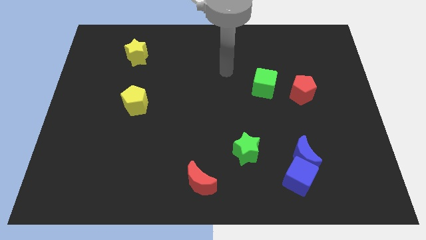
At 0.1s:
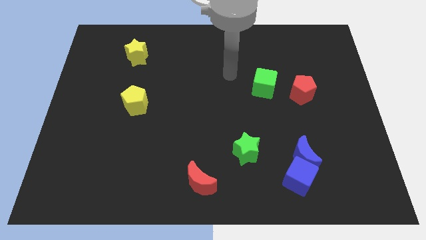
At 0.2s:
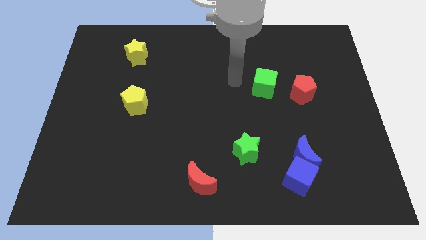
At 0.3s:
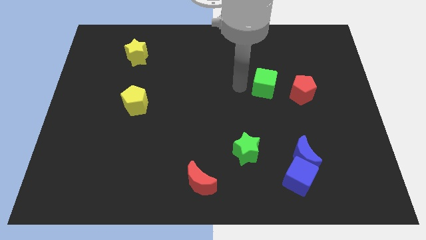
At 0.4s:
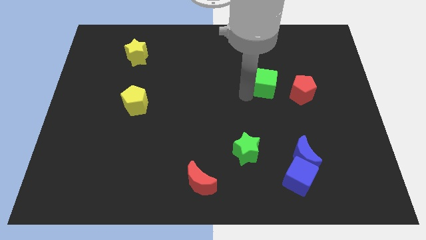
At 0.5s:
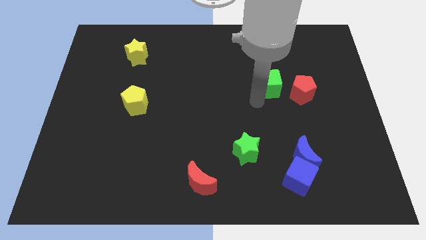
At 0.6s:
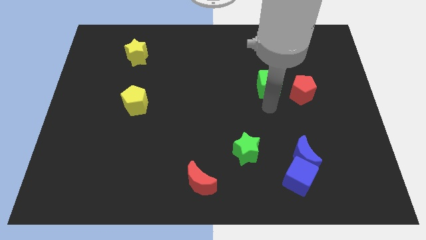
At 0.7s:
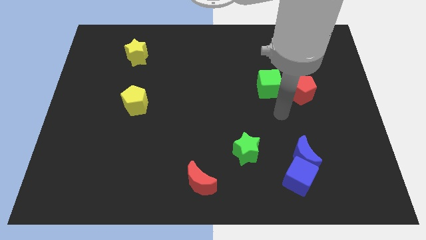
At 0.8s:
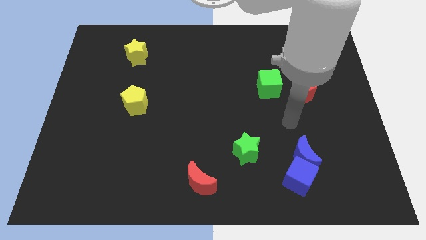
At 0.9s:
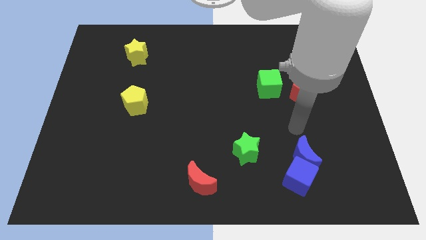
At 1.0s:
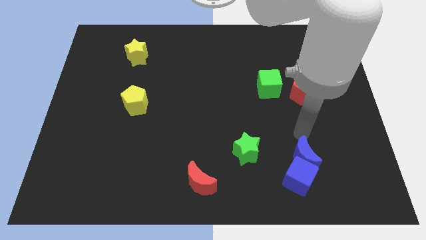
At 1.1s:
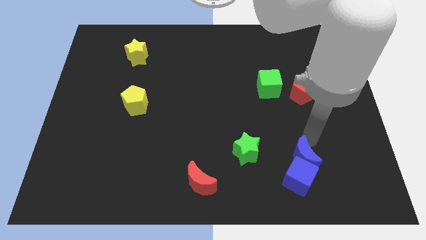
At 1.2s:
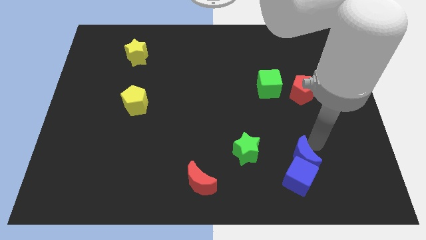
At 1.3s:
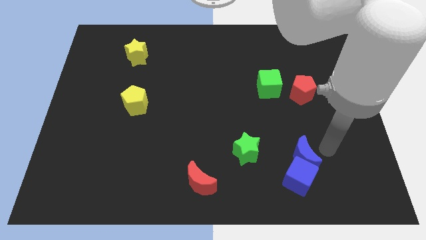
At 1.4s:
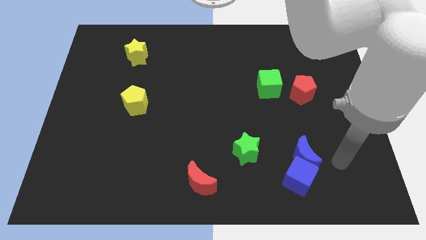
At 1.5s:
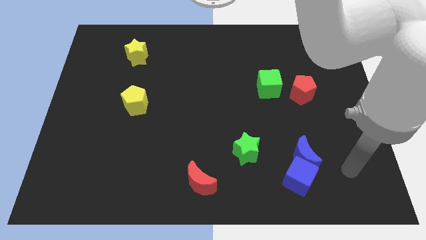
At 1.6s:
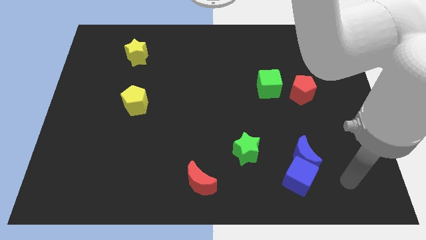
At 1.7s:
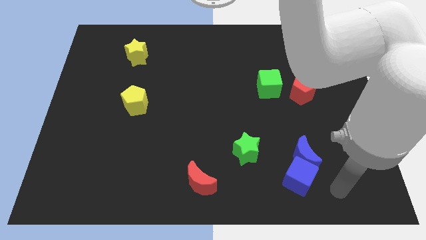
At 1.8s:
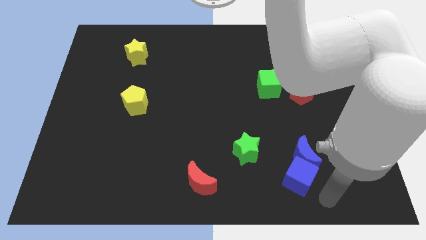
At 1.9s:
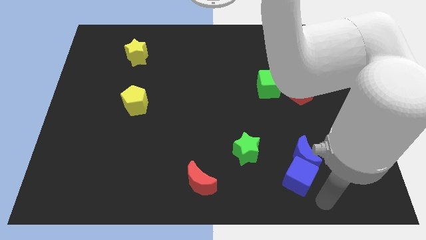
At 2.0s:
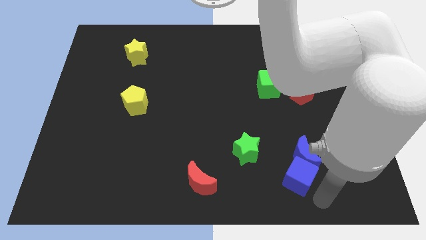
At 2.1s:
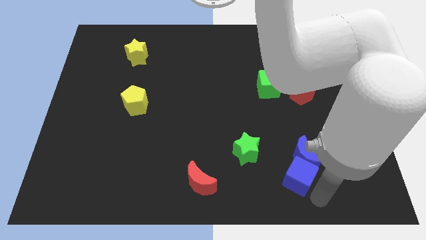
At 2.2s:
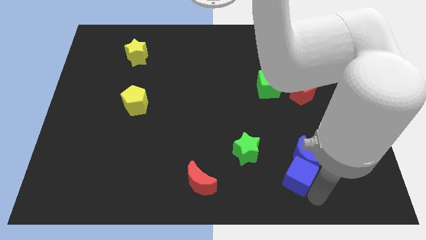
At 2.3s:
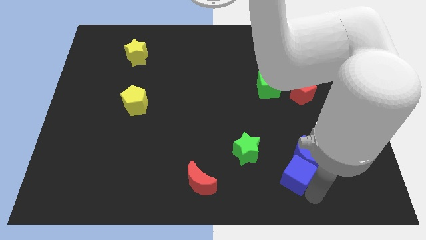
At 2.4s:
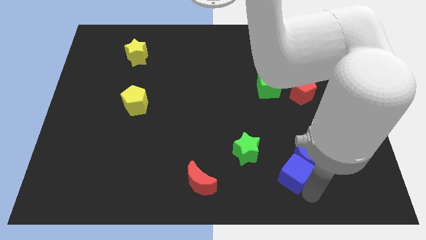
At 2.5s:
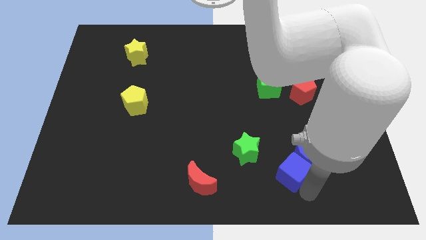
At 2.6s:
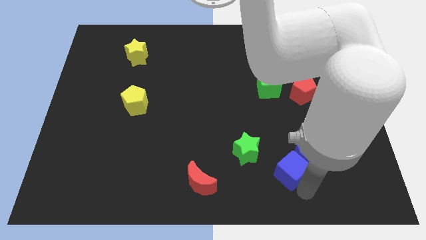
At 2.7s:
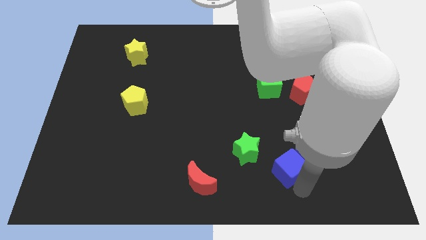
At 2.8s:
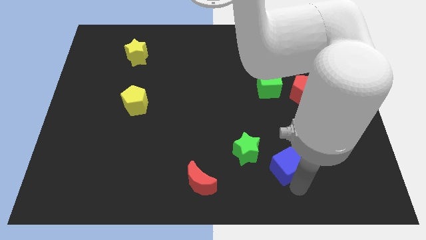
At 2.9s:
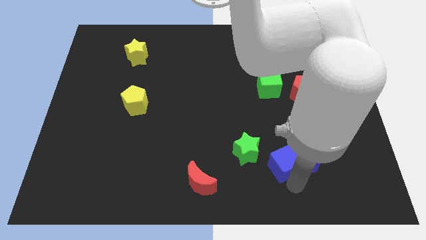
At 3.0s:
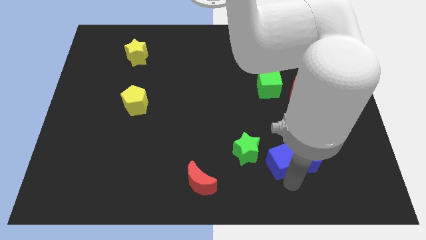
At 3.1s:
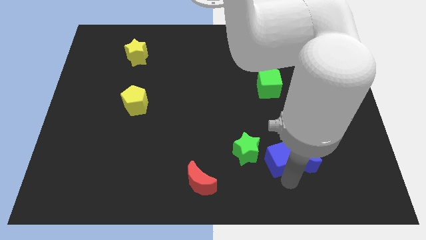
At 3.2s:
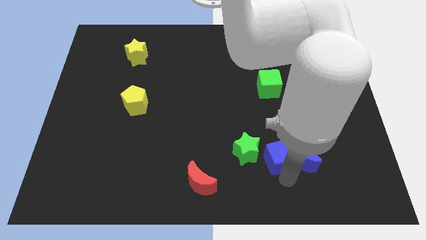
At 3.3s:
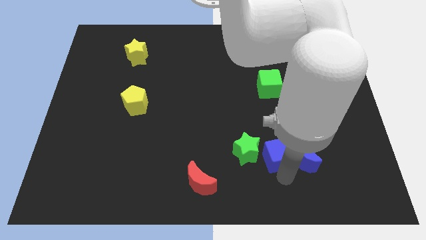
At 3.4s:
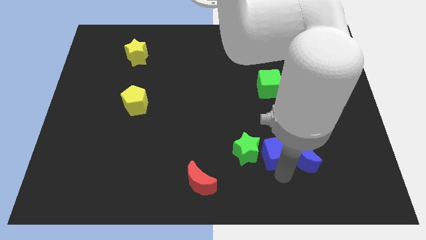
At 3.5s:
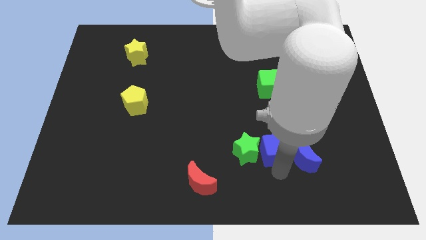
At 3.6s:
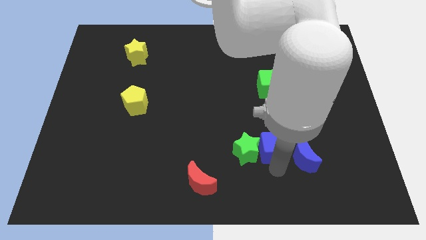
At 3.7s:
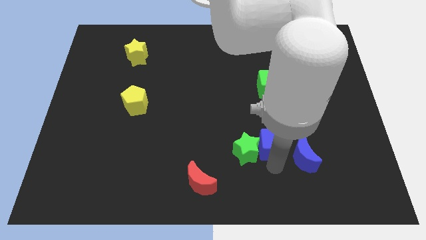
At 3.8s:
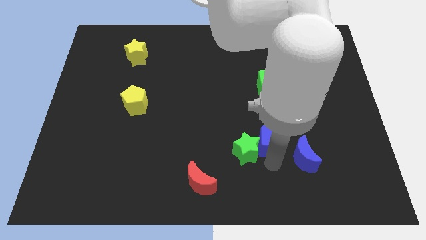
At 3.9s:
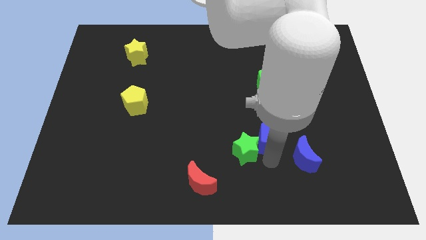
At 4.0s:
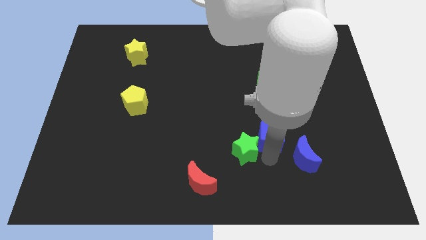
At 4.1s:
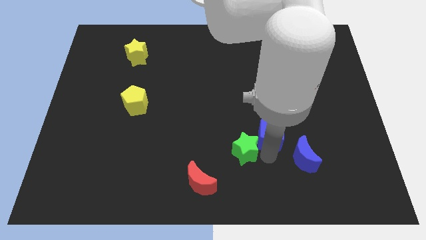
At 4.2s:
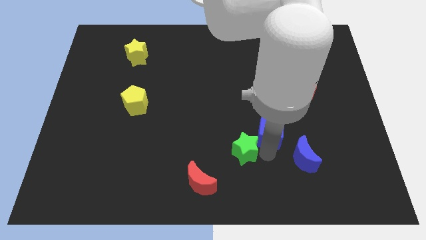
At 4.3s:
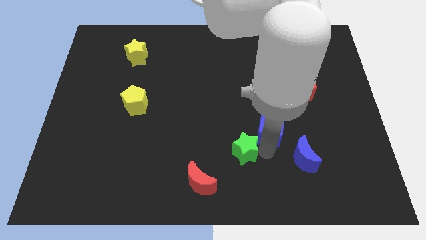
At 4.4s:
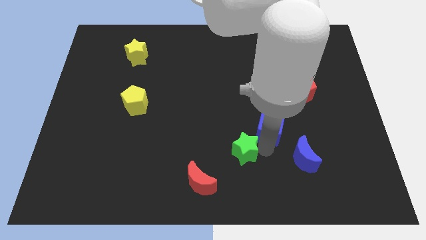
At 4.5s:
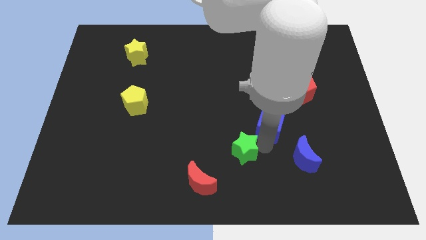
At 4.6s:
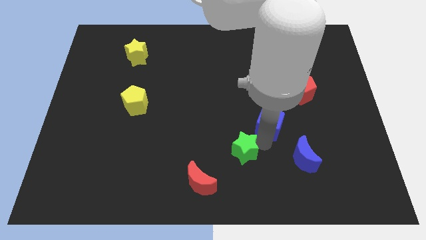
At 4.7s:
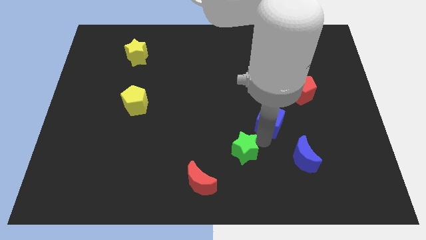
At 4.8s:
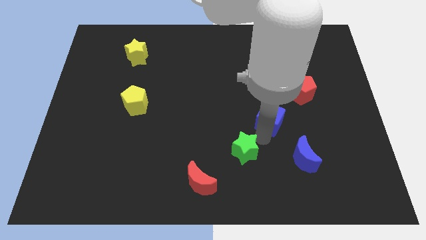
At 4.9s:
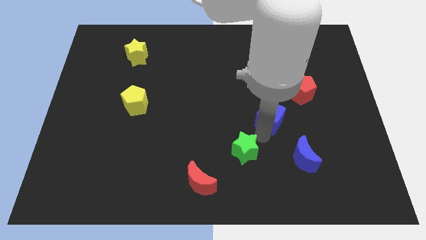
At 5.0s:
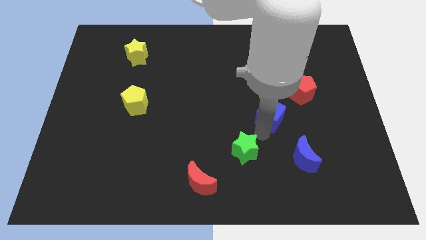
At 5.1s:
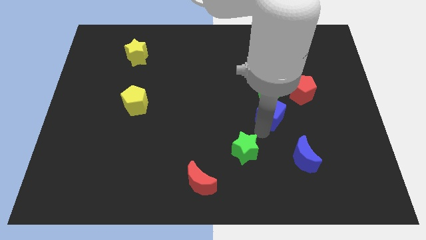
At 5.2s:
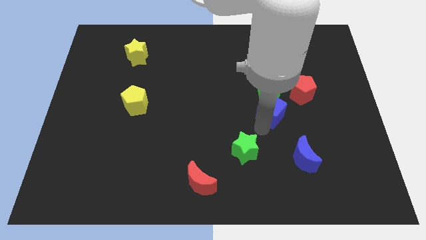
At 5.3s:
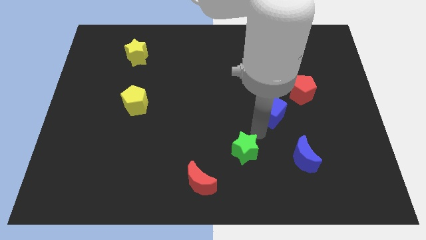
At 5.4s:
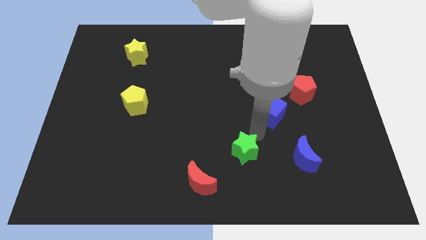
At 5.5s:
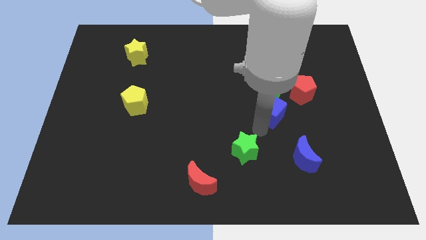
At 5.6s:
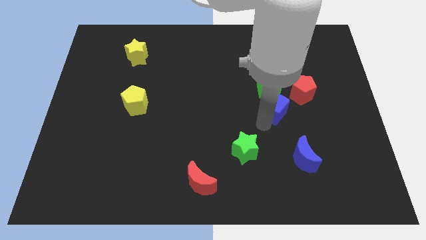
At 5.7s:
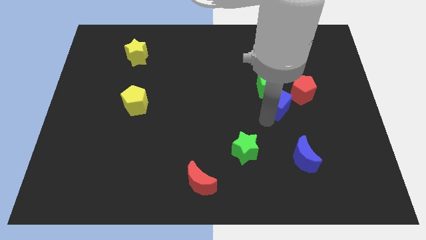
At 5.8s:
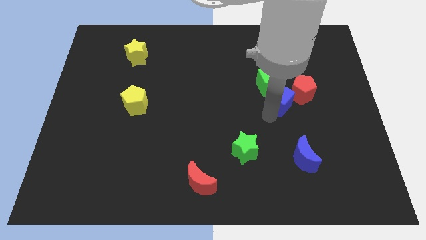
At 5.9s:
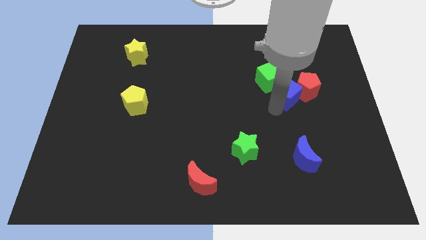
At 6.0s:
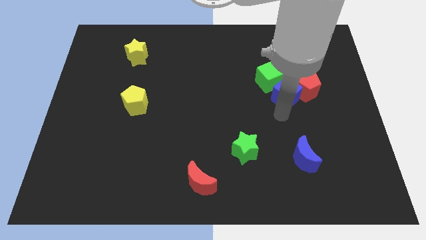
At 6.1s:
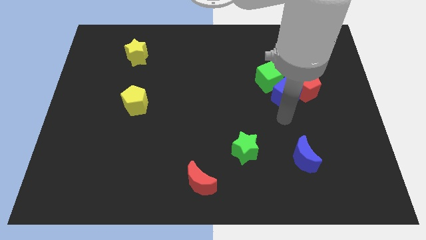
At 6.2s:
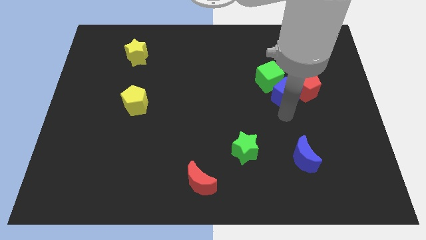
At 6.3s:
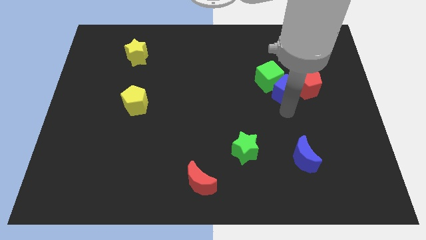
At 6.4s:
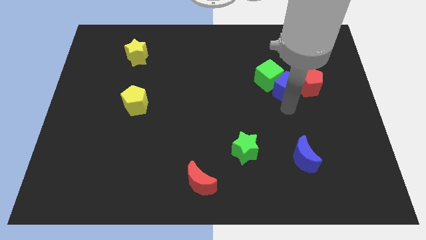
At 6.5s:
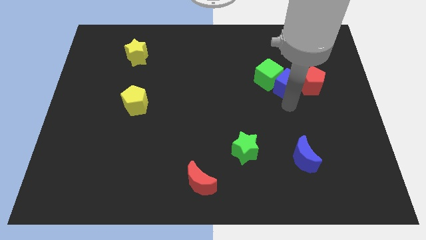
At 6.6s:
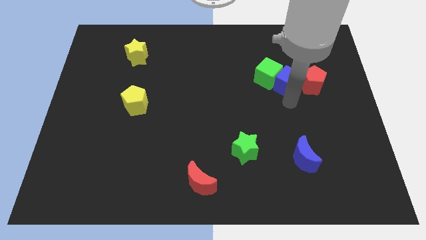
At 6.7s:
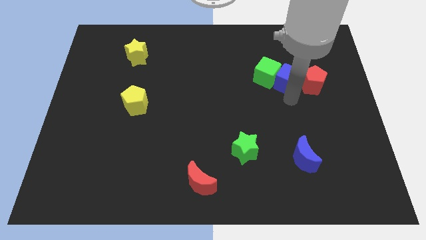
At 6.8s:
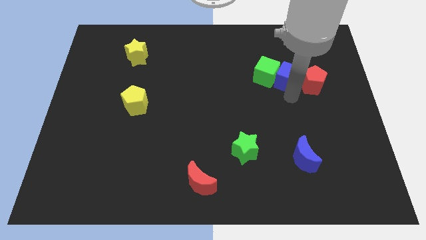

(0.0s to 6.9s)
slide the blue cube to the top right of the green cube

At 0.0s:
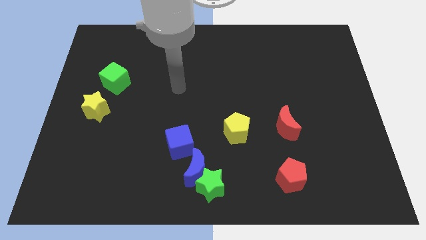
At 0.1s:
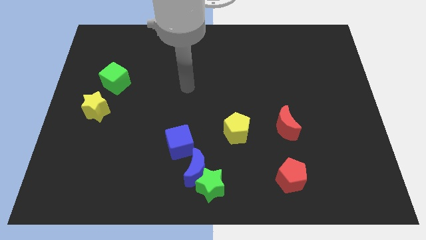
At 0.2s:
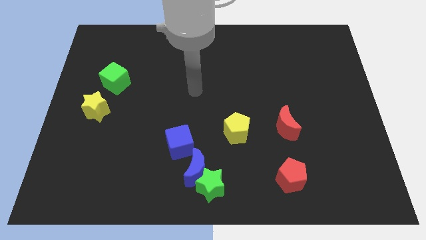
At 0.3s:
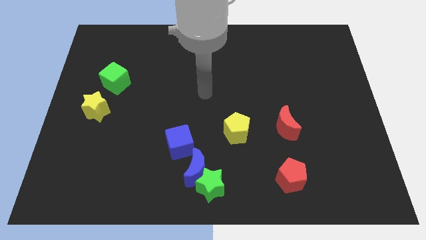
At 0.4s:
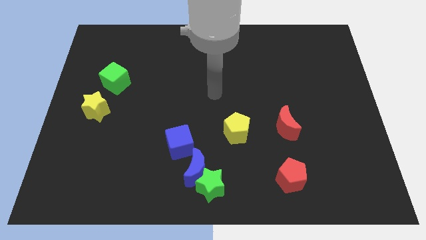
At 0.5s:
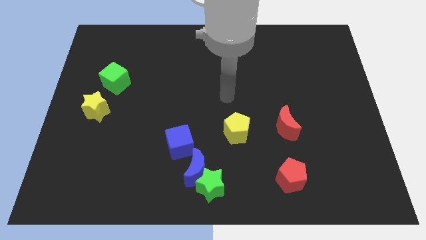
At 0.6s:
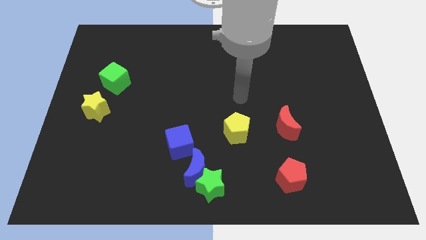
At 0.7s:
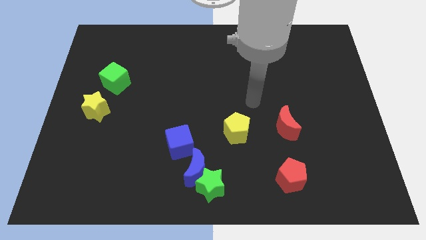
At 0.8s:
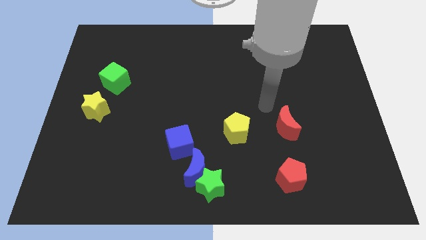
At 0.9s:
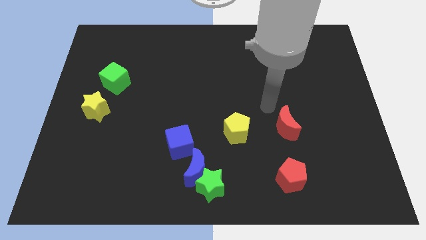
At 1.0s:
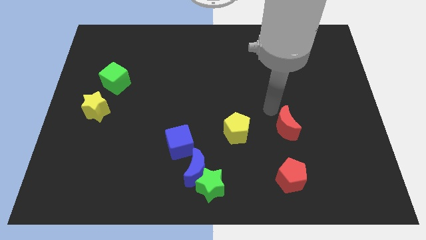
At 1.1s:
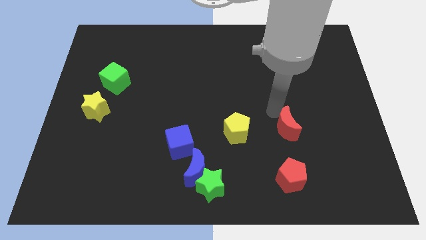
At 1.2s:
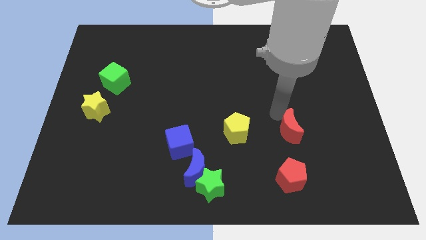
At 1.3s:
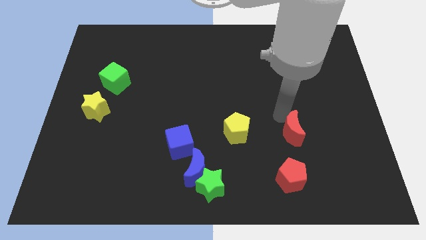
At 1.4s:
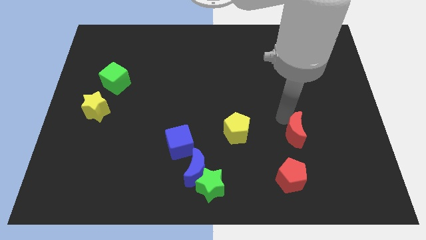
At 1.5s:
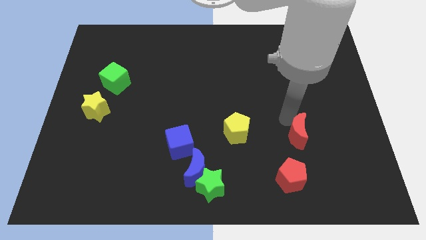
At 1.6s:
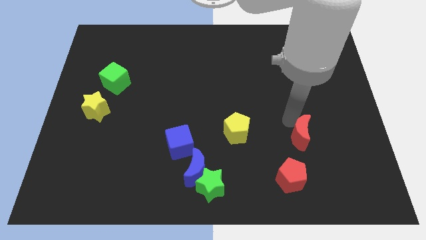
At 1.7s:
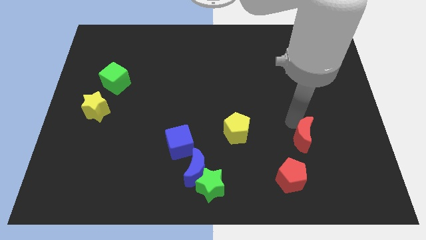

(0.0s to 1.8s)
push the red moon to the top right side of the red pentagon
